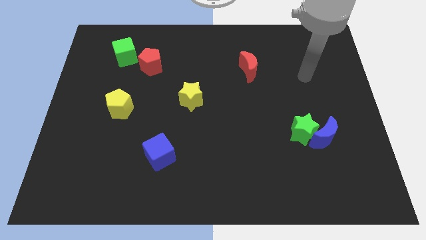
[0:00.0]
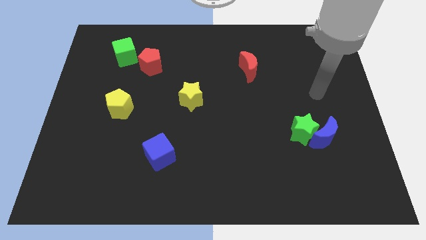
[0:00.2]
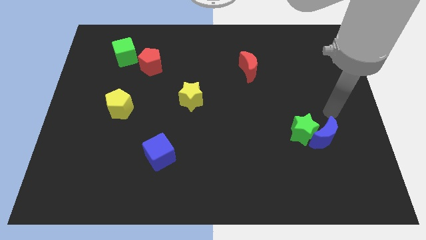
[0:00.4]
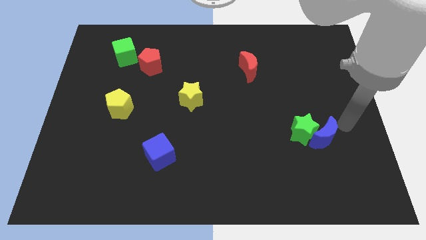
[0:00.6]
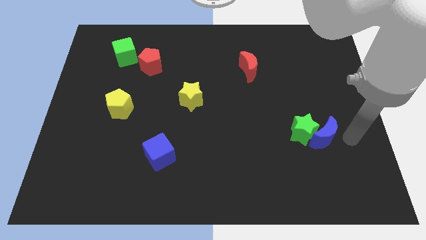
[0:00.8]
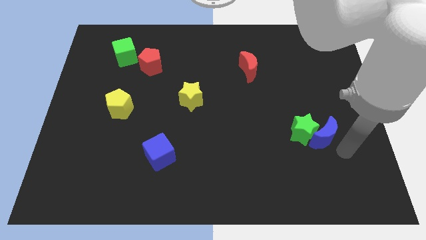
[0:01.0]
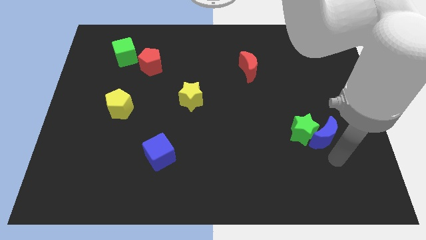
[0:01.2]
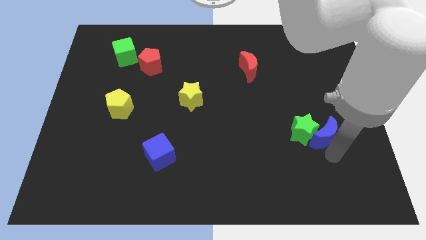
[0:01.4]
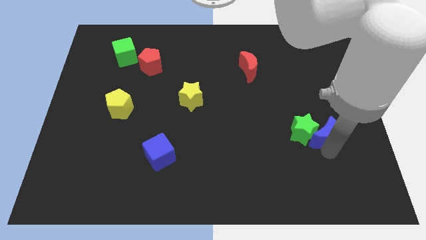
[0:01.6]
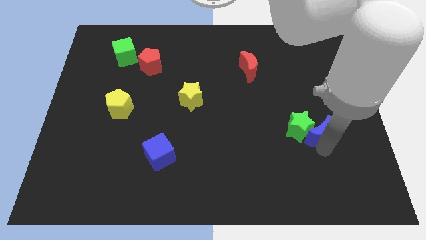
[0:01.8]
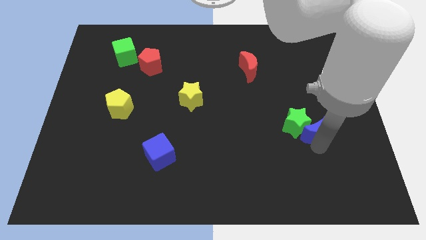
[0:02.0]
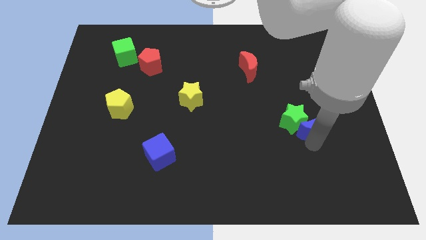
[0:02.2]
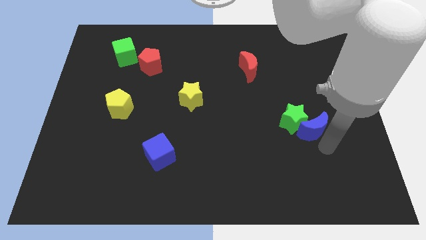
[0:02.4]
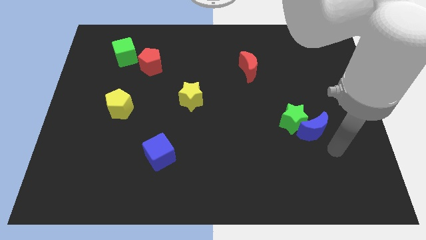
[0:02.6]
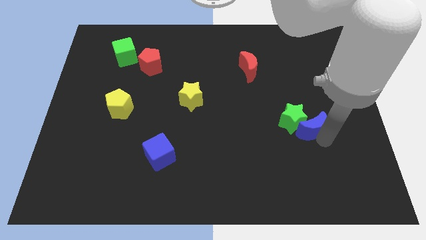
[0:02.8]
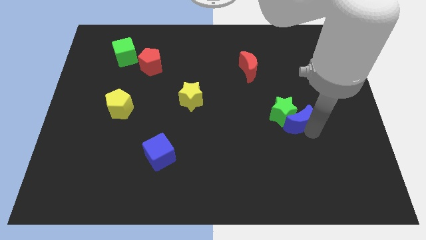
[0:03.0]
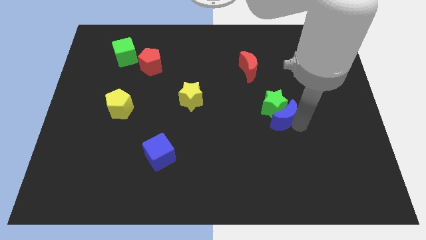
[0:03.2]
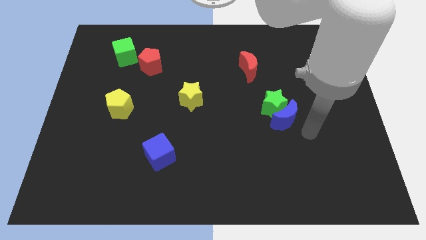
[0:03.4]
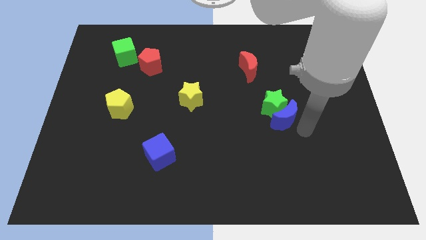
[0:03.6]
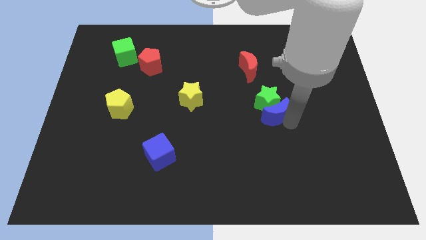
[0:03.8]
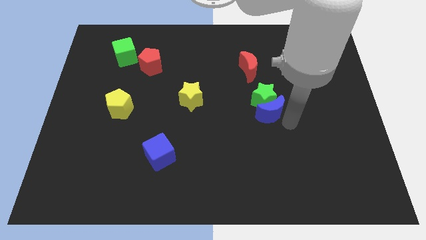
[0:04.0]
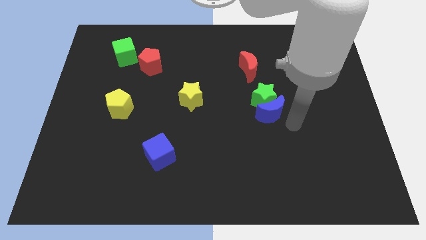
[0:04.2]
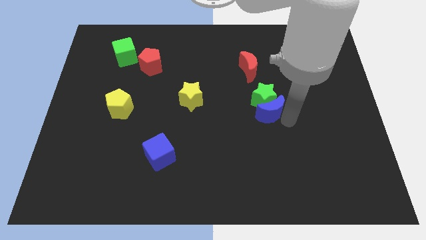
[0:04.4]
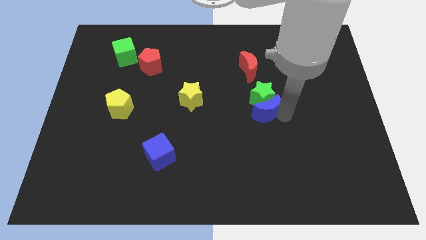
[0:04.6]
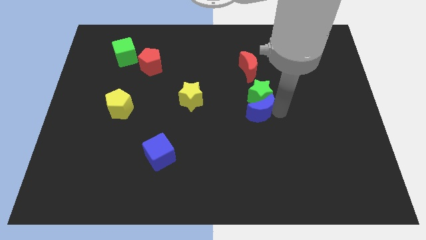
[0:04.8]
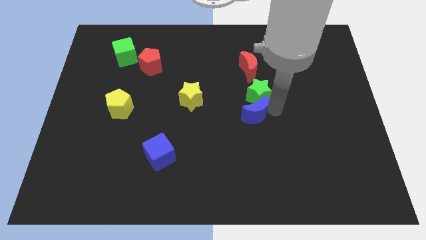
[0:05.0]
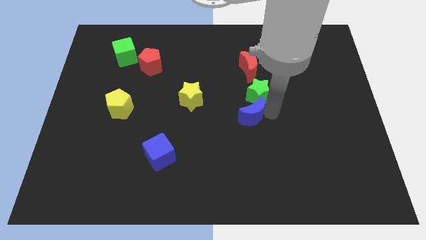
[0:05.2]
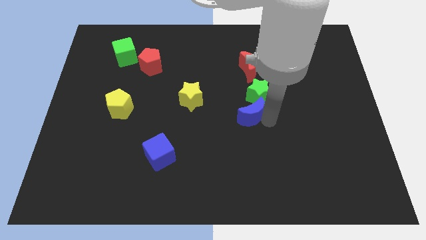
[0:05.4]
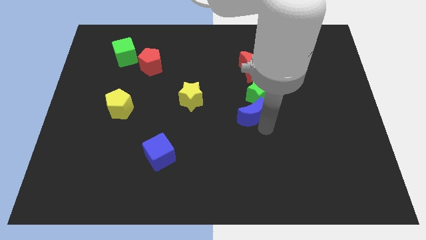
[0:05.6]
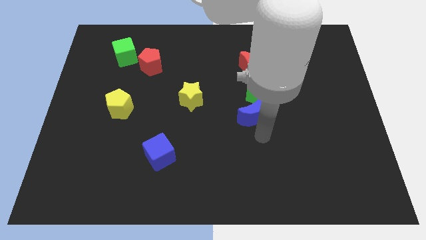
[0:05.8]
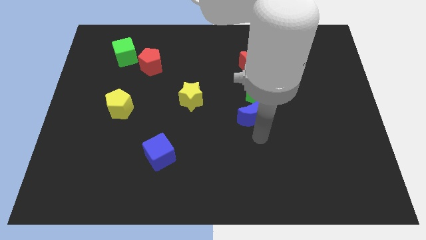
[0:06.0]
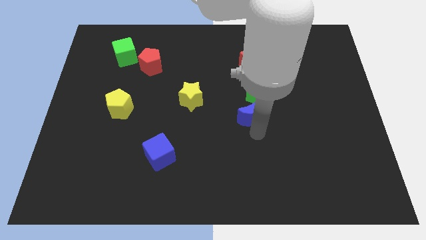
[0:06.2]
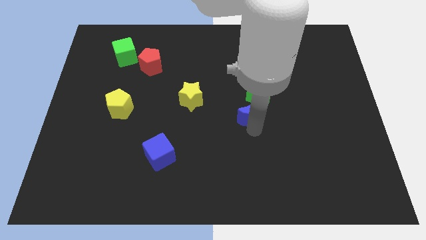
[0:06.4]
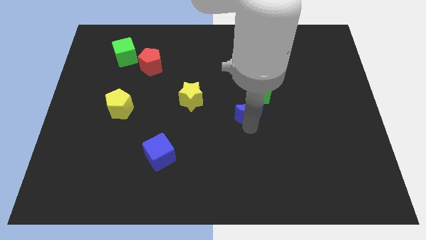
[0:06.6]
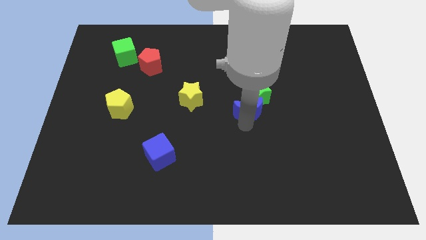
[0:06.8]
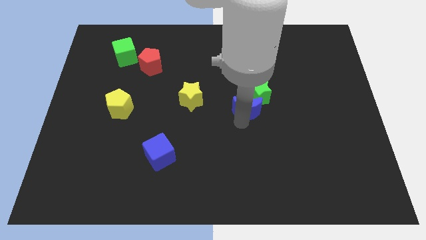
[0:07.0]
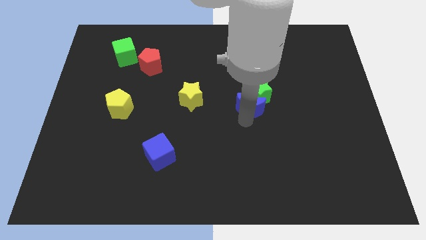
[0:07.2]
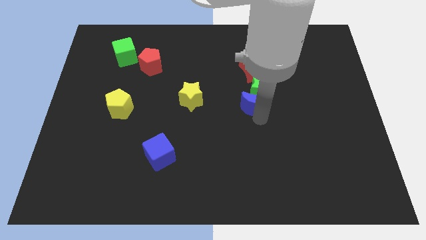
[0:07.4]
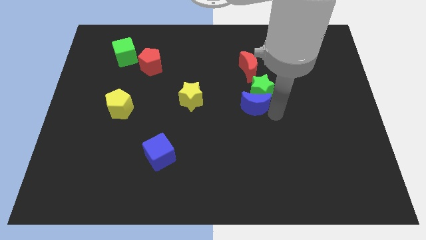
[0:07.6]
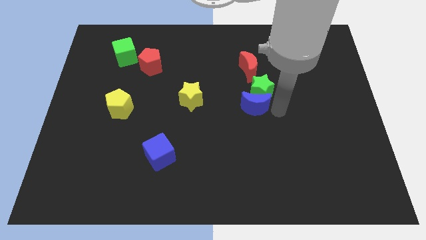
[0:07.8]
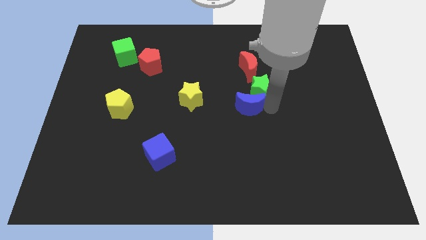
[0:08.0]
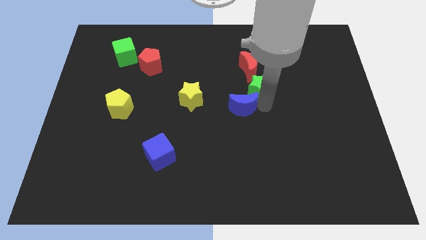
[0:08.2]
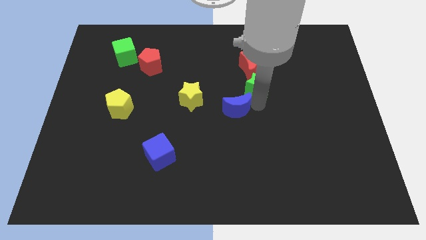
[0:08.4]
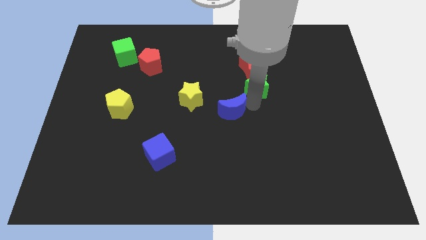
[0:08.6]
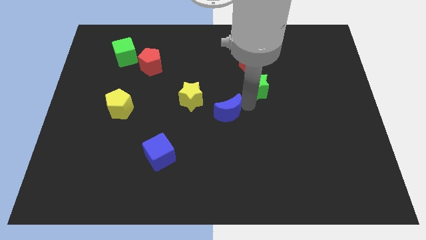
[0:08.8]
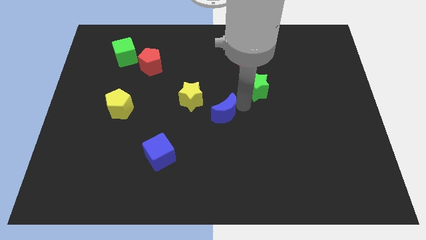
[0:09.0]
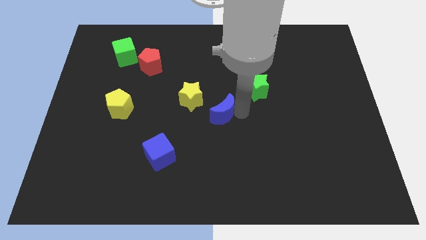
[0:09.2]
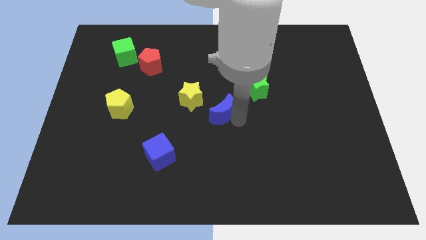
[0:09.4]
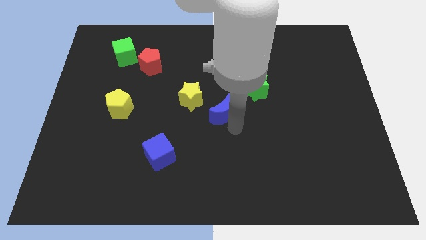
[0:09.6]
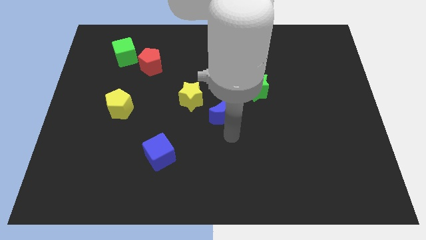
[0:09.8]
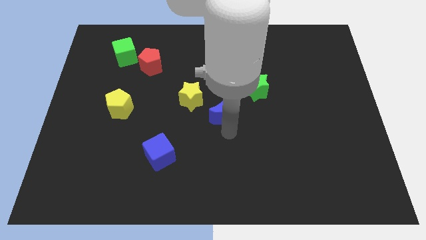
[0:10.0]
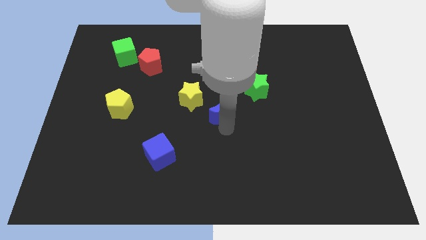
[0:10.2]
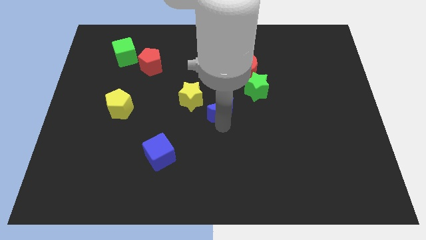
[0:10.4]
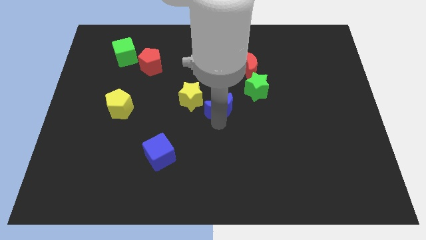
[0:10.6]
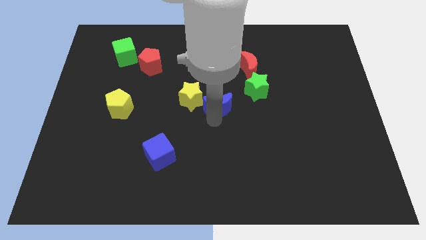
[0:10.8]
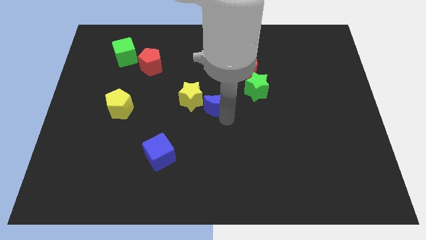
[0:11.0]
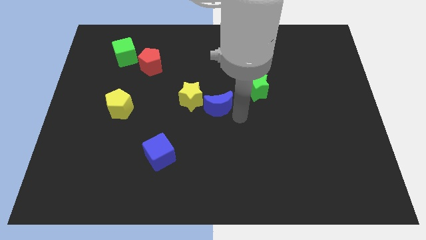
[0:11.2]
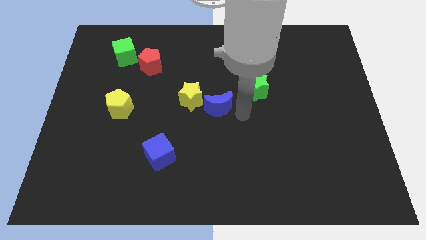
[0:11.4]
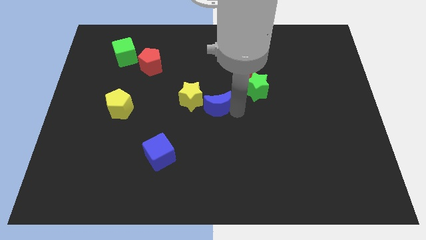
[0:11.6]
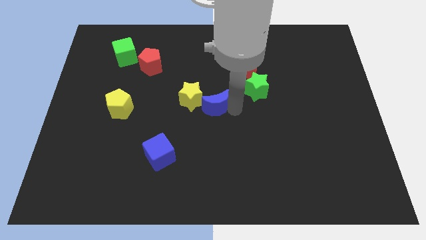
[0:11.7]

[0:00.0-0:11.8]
put the blue moon close to the yellow star

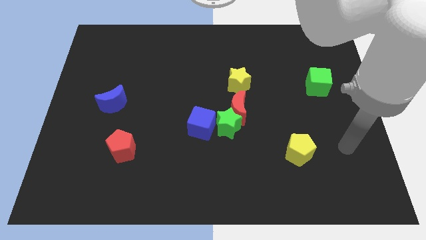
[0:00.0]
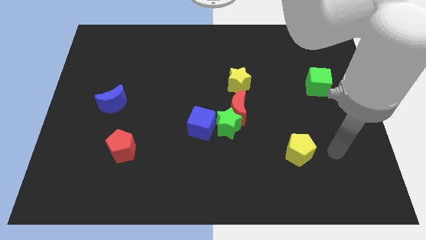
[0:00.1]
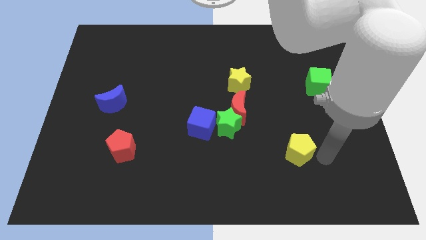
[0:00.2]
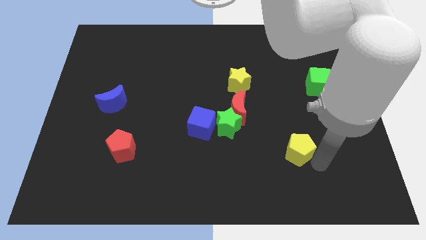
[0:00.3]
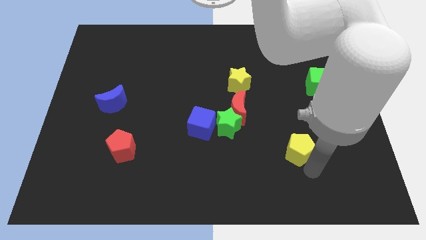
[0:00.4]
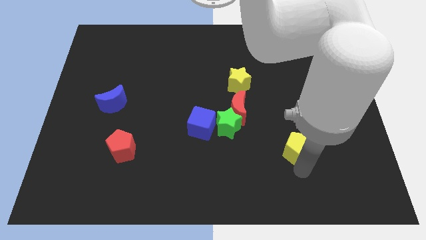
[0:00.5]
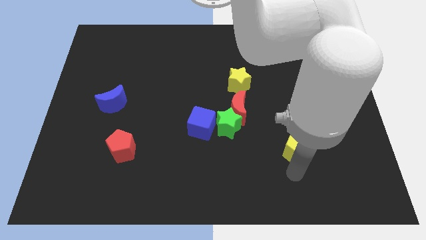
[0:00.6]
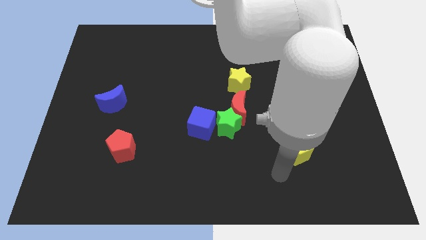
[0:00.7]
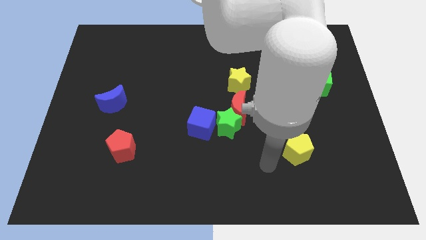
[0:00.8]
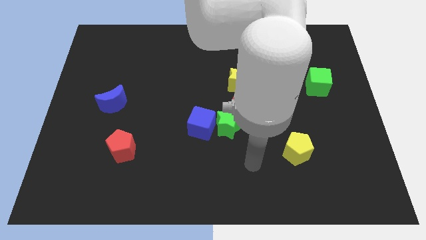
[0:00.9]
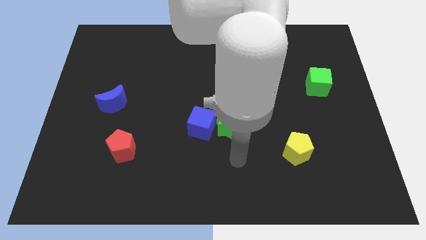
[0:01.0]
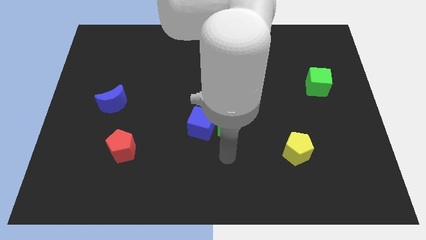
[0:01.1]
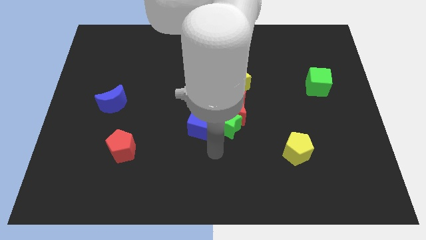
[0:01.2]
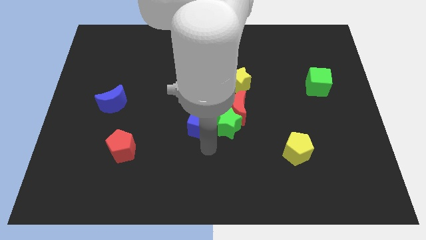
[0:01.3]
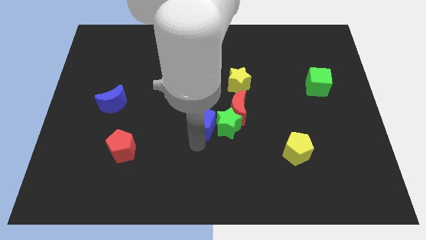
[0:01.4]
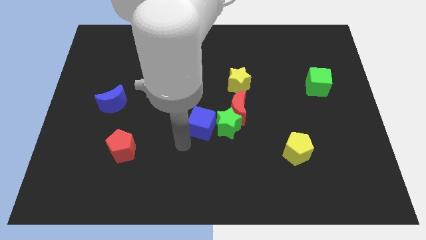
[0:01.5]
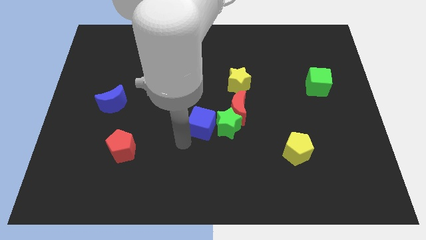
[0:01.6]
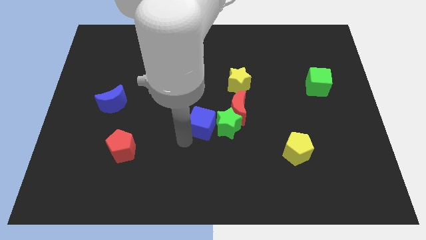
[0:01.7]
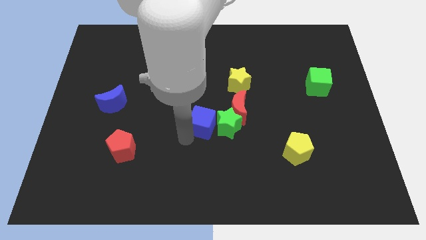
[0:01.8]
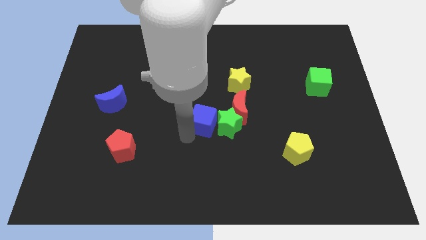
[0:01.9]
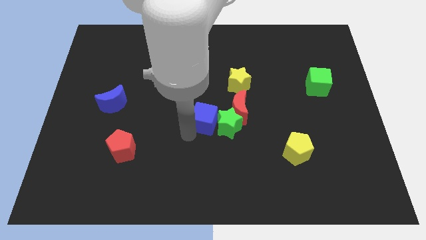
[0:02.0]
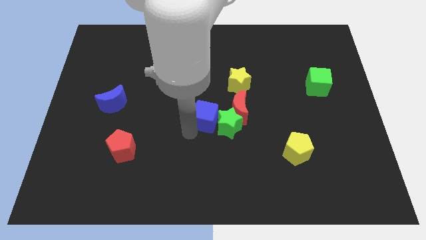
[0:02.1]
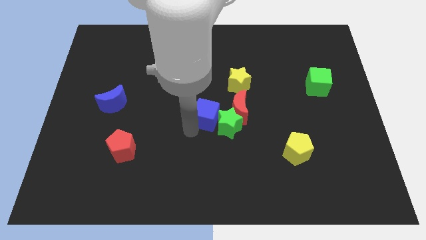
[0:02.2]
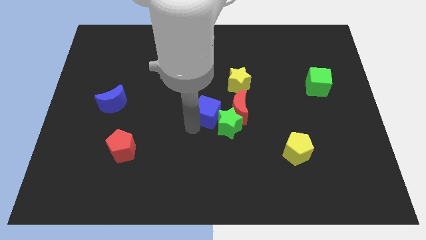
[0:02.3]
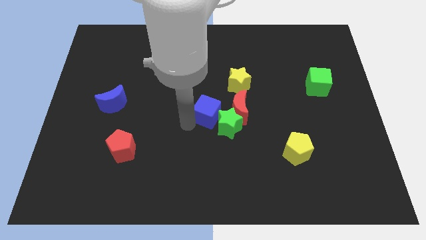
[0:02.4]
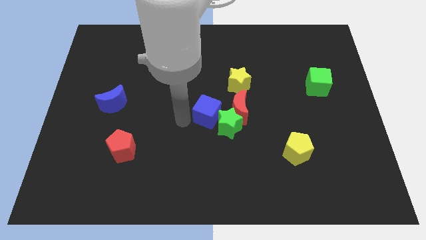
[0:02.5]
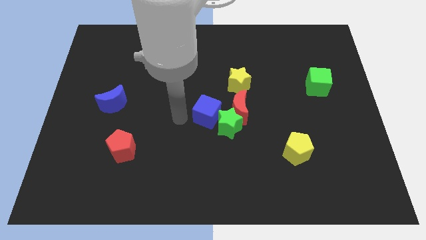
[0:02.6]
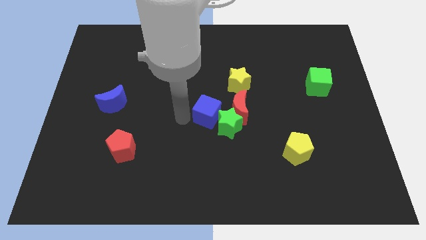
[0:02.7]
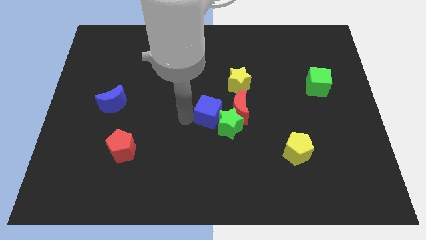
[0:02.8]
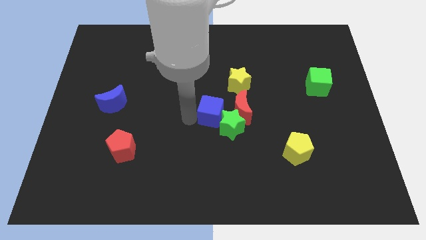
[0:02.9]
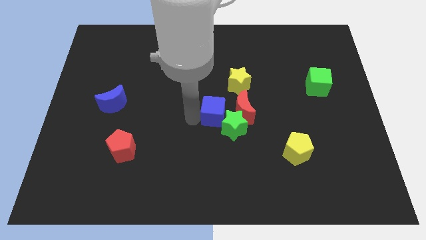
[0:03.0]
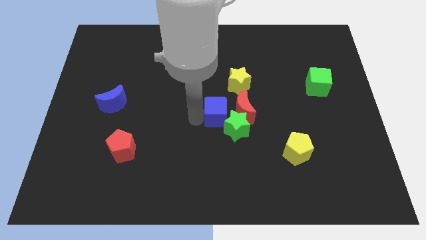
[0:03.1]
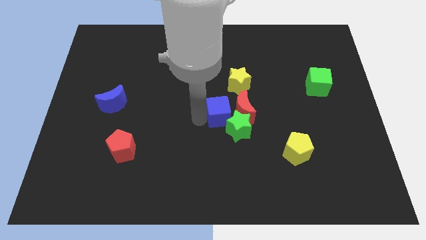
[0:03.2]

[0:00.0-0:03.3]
push the blue cube close to the red moon
